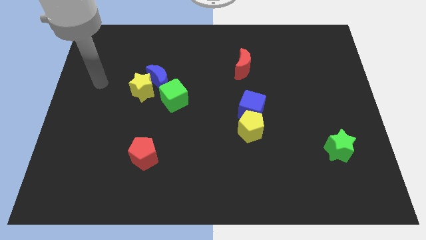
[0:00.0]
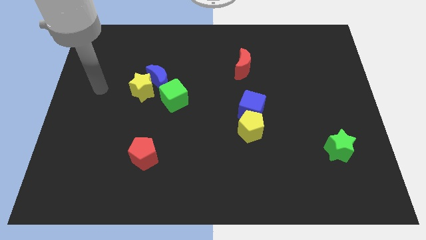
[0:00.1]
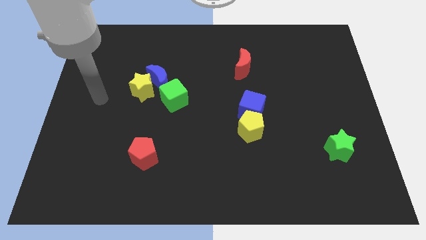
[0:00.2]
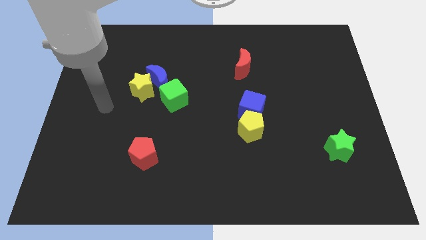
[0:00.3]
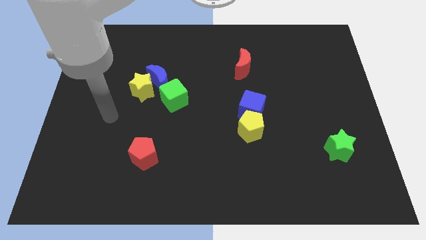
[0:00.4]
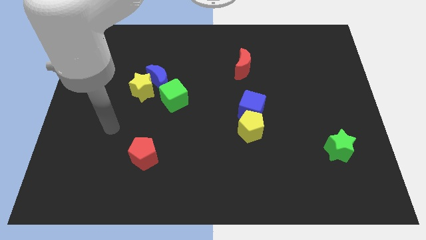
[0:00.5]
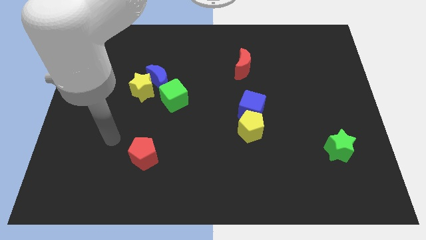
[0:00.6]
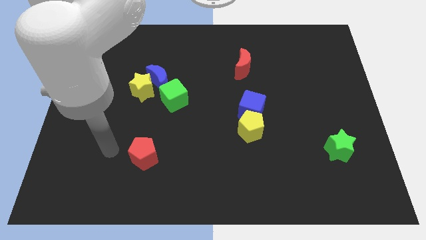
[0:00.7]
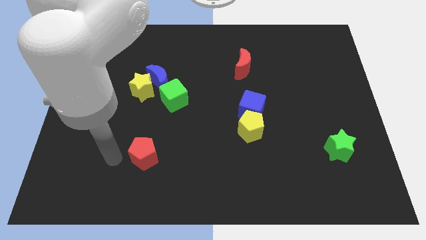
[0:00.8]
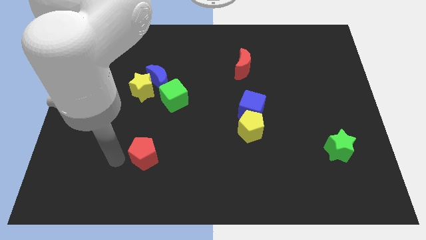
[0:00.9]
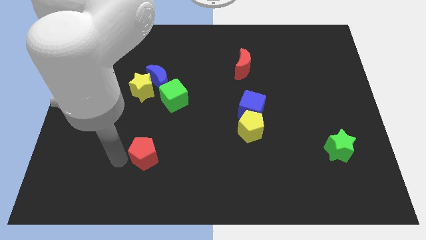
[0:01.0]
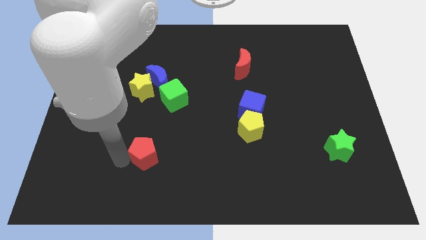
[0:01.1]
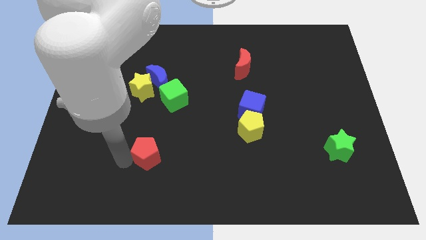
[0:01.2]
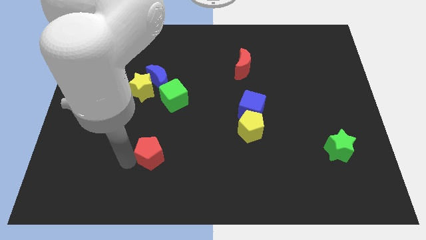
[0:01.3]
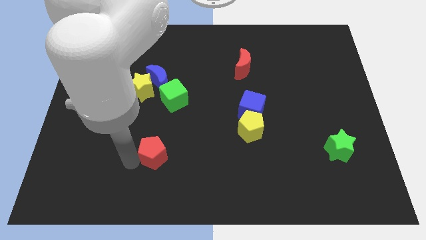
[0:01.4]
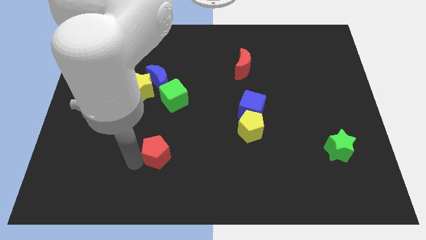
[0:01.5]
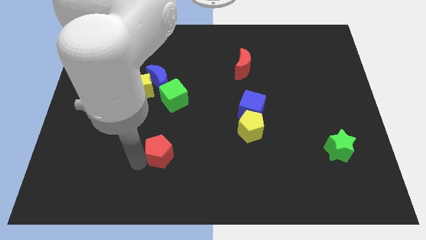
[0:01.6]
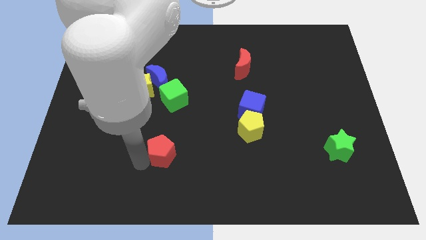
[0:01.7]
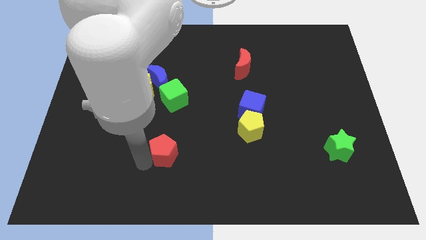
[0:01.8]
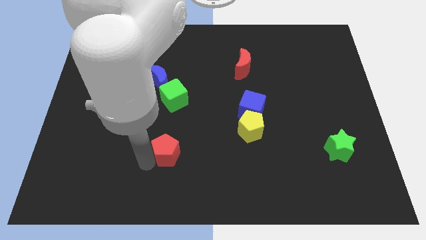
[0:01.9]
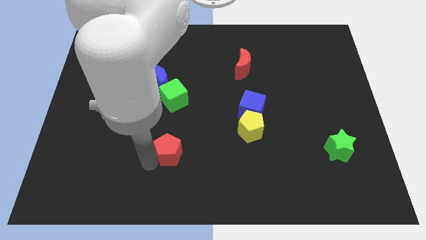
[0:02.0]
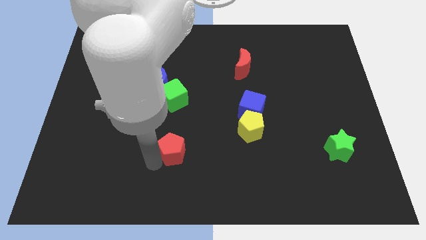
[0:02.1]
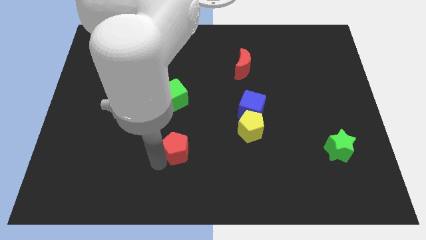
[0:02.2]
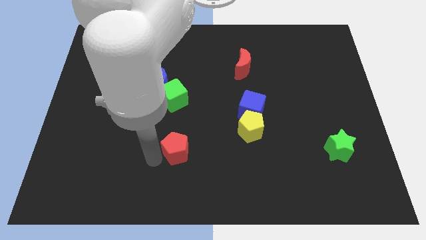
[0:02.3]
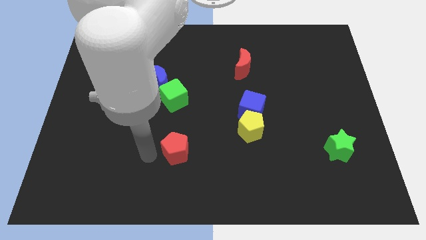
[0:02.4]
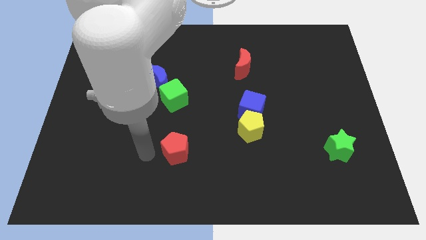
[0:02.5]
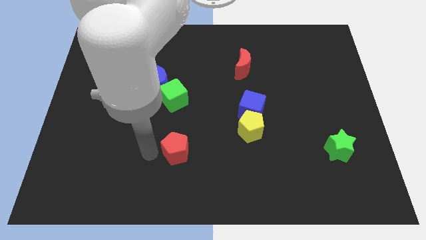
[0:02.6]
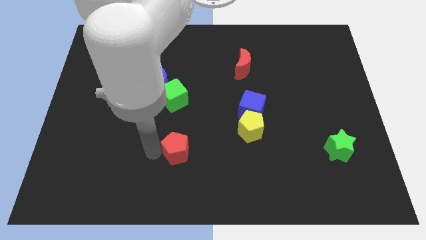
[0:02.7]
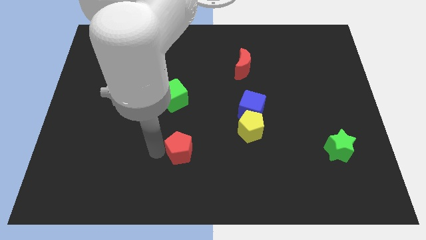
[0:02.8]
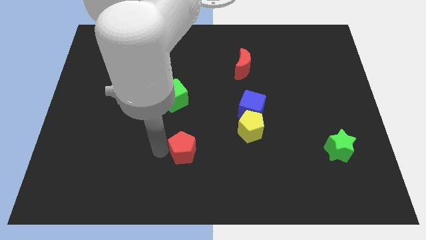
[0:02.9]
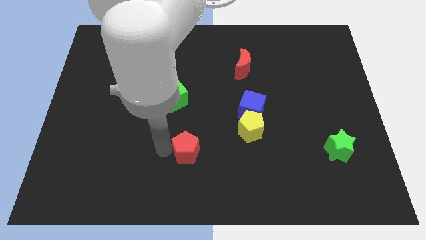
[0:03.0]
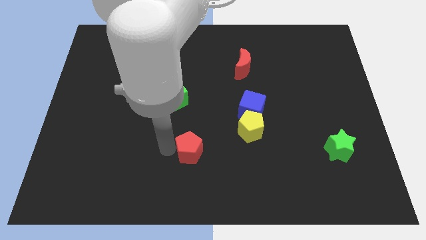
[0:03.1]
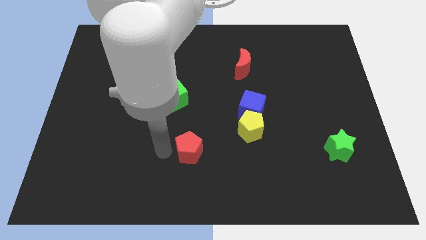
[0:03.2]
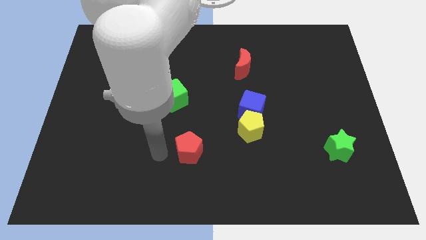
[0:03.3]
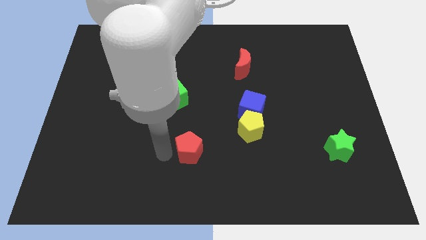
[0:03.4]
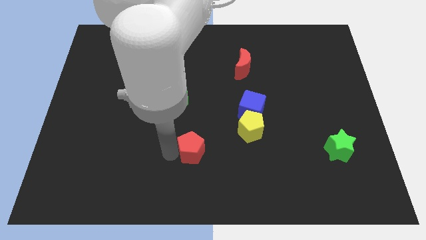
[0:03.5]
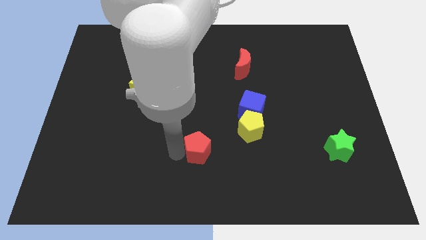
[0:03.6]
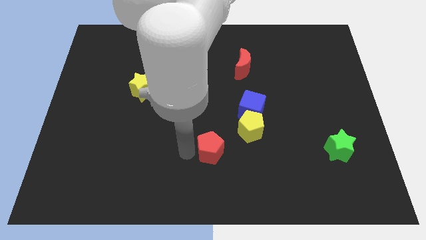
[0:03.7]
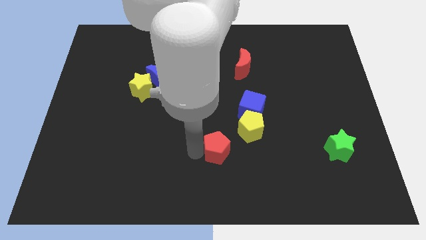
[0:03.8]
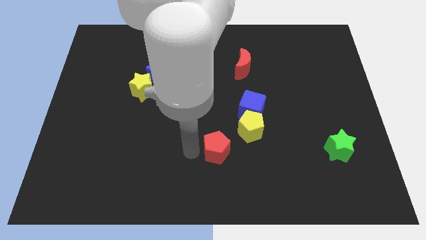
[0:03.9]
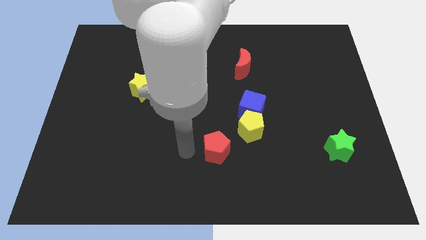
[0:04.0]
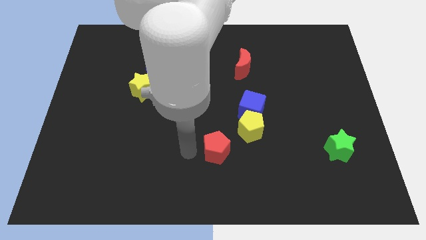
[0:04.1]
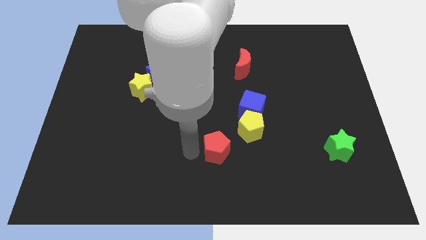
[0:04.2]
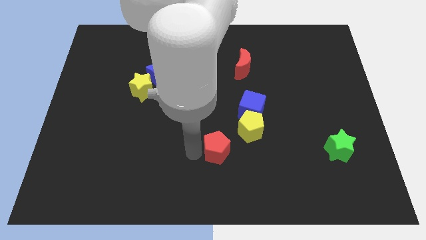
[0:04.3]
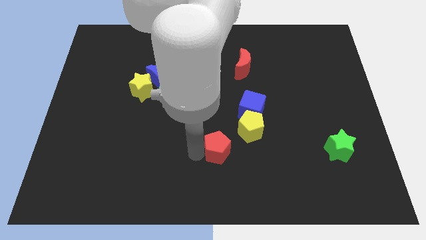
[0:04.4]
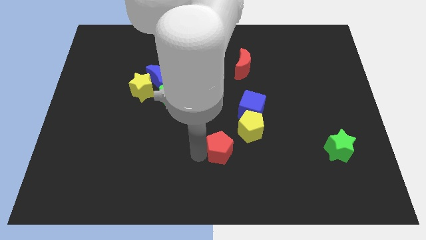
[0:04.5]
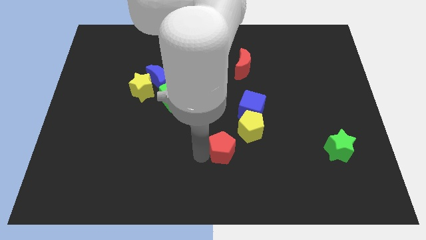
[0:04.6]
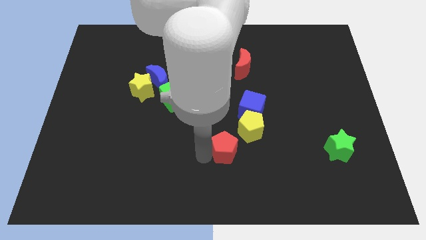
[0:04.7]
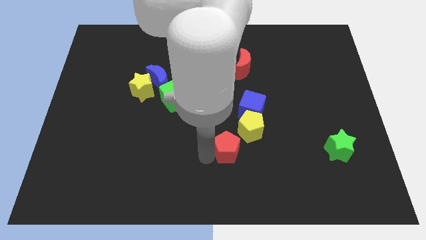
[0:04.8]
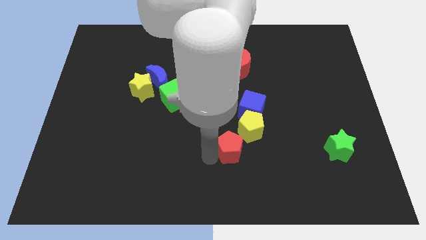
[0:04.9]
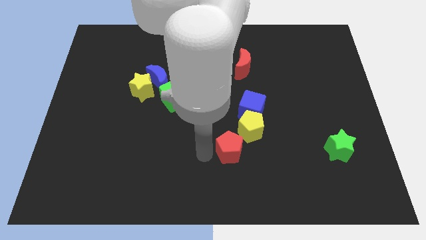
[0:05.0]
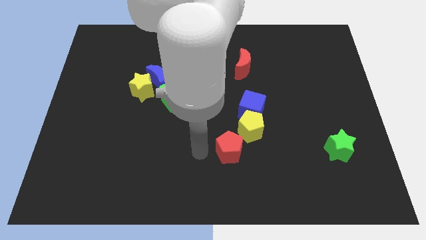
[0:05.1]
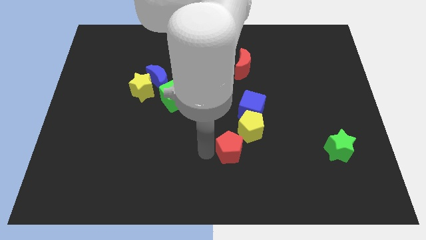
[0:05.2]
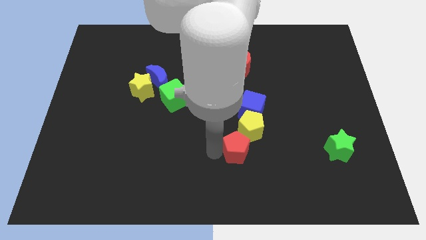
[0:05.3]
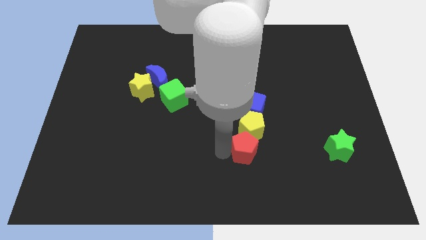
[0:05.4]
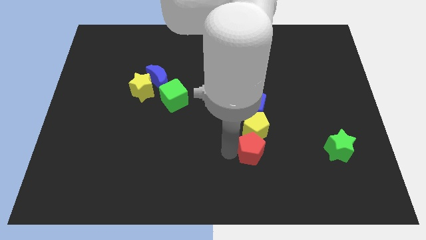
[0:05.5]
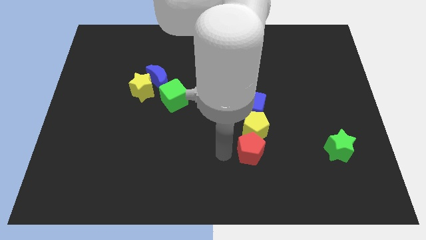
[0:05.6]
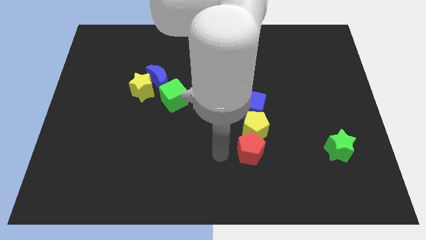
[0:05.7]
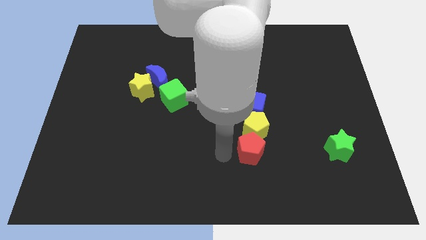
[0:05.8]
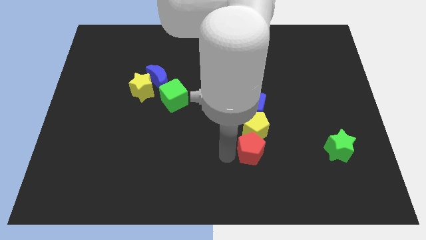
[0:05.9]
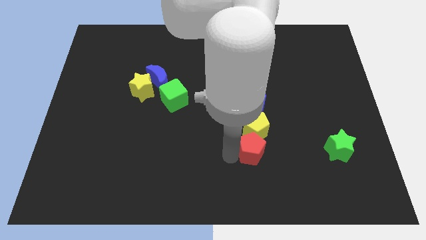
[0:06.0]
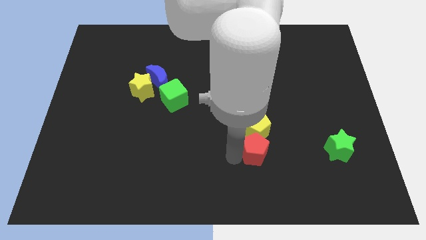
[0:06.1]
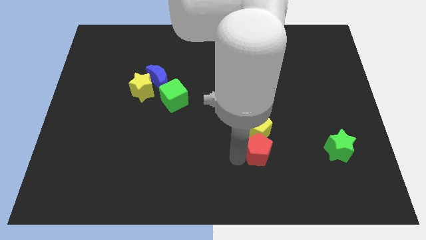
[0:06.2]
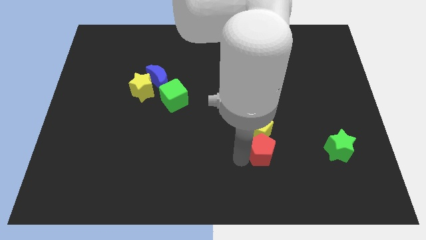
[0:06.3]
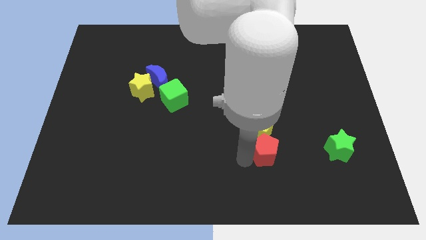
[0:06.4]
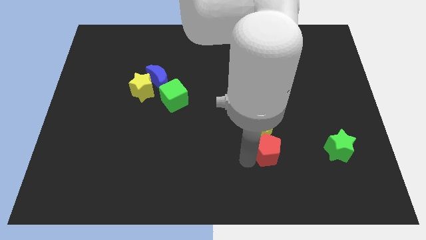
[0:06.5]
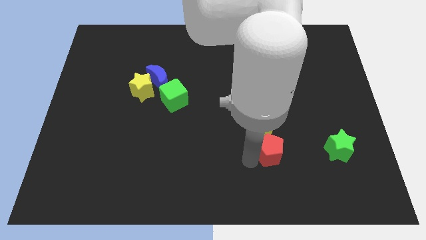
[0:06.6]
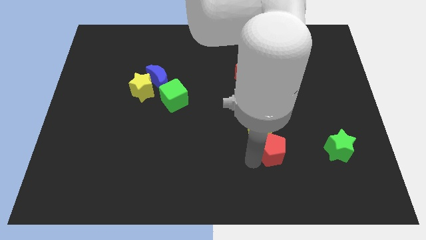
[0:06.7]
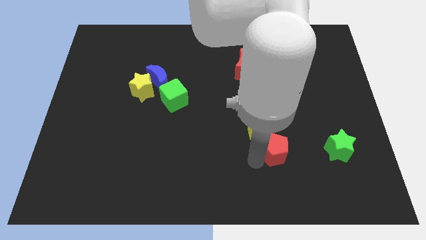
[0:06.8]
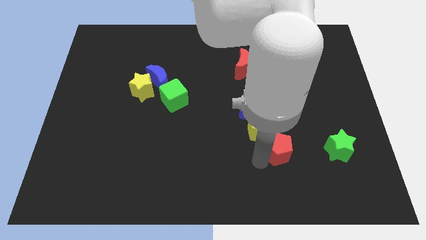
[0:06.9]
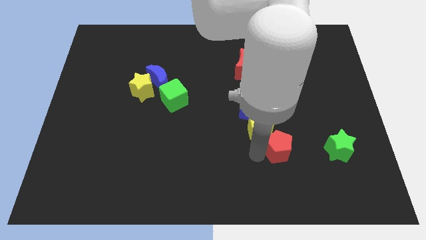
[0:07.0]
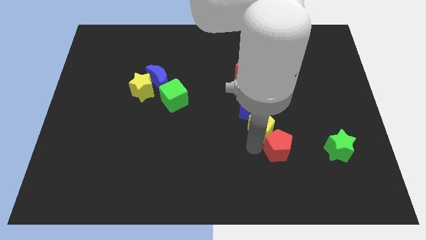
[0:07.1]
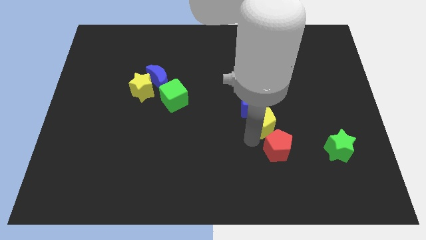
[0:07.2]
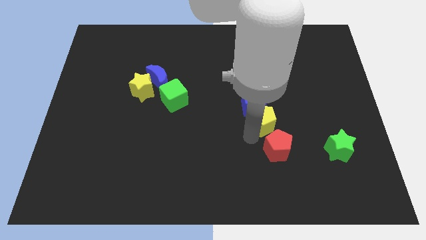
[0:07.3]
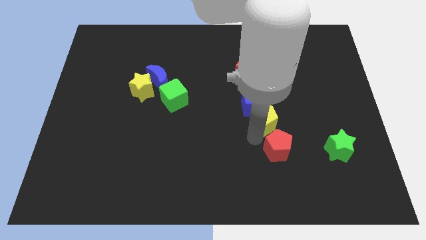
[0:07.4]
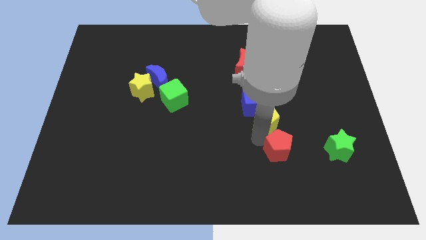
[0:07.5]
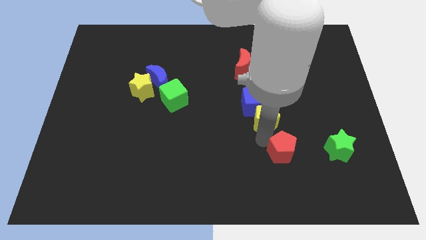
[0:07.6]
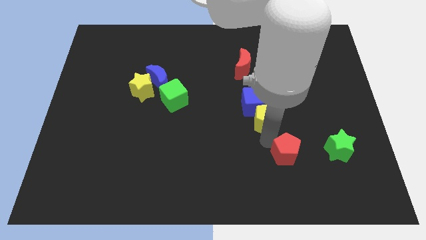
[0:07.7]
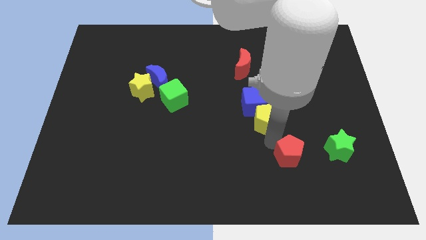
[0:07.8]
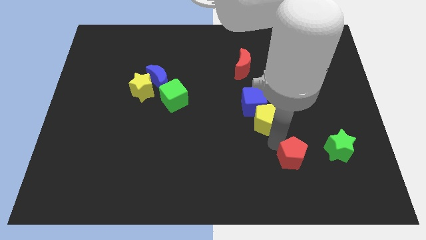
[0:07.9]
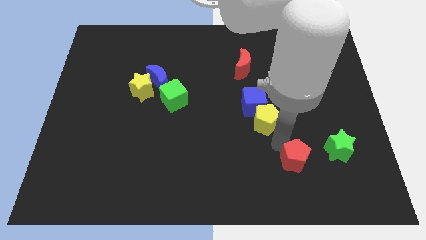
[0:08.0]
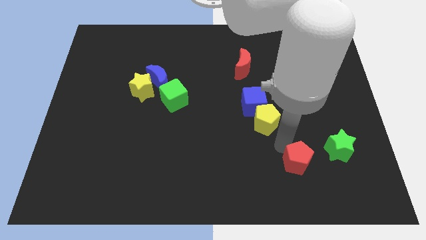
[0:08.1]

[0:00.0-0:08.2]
put the red pentagon diagonally down and to the left of the green star
